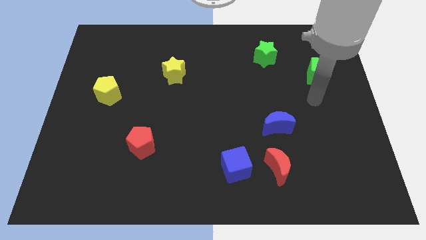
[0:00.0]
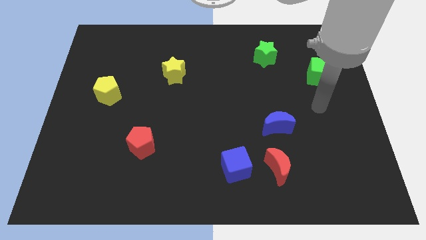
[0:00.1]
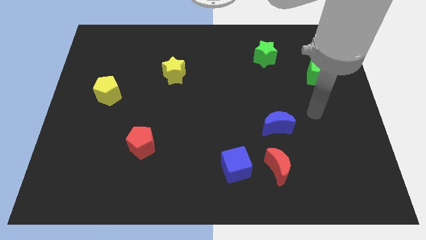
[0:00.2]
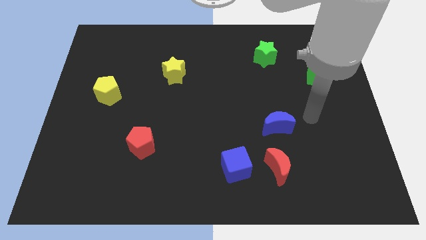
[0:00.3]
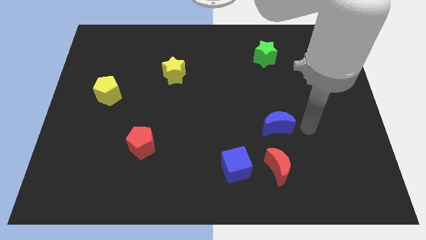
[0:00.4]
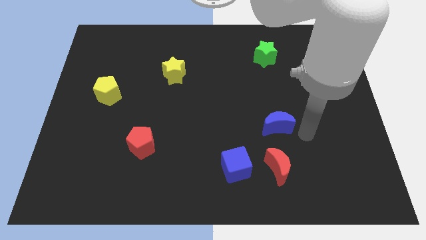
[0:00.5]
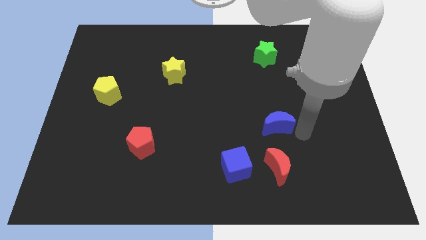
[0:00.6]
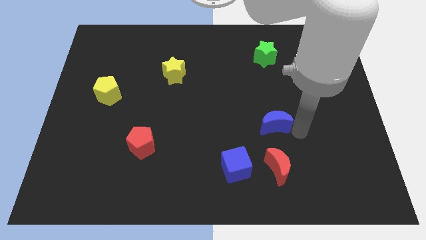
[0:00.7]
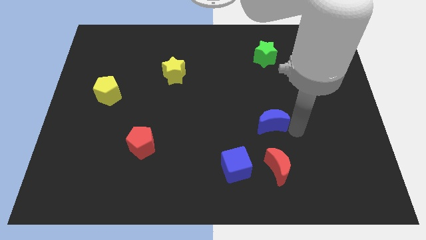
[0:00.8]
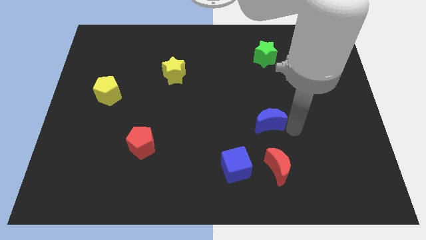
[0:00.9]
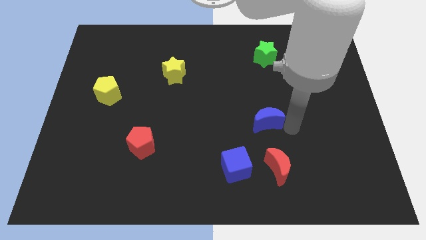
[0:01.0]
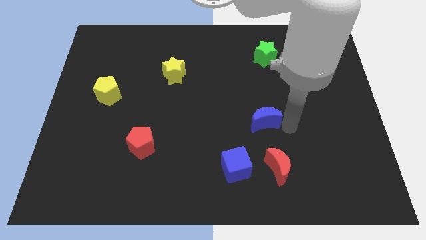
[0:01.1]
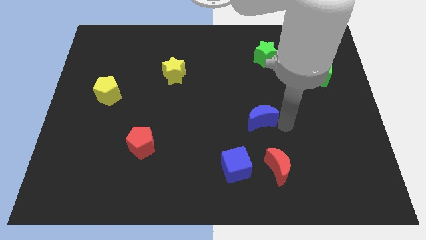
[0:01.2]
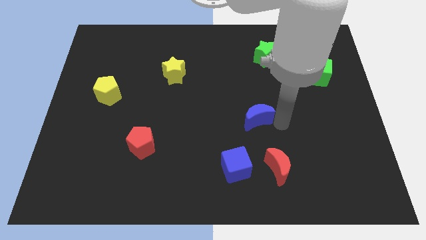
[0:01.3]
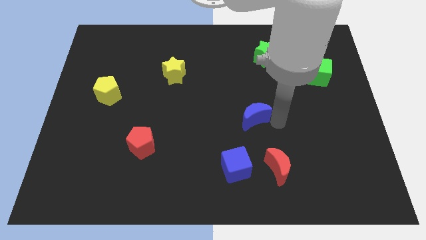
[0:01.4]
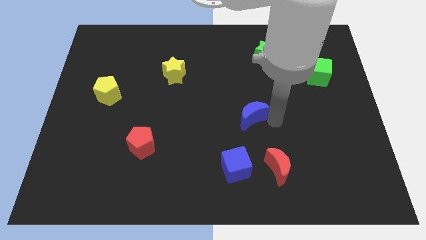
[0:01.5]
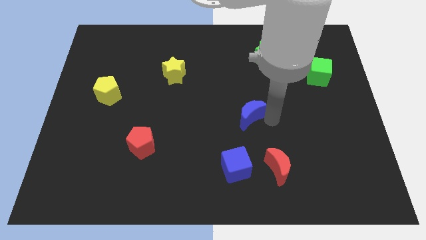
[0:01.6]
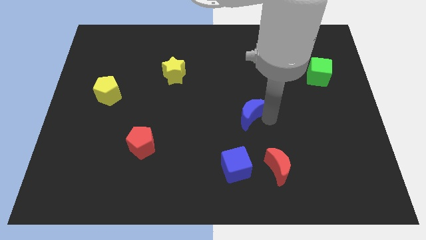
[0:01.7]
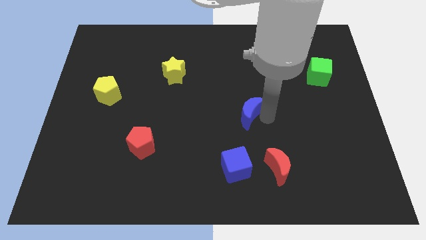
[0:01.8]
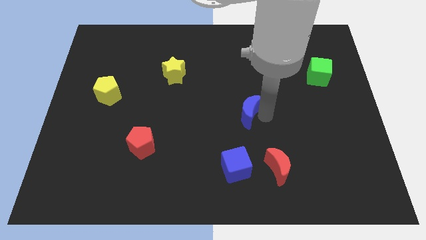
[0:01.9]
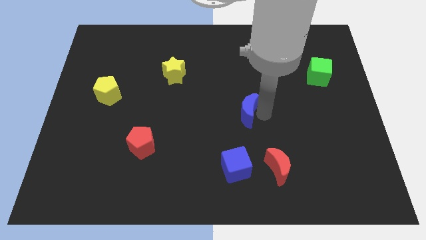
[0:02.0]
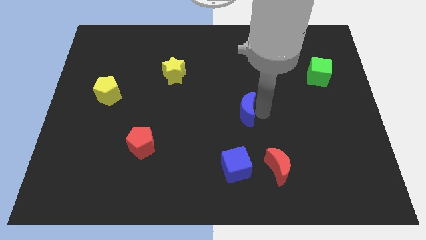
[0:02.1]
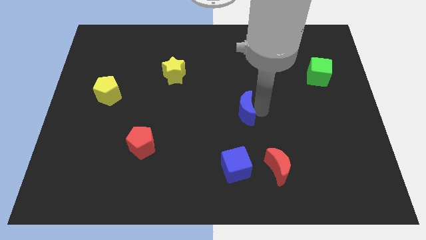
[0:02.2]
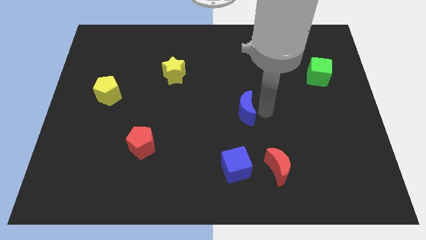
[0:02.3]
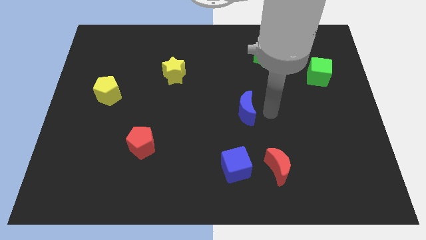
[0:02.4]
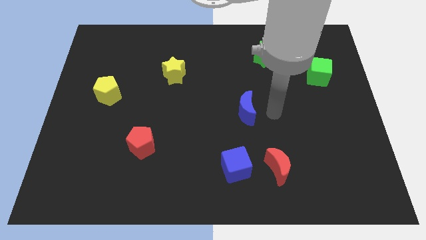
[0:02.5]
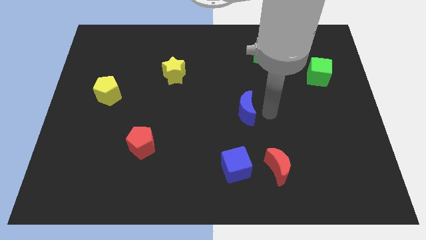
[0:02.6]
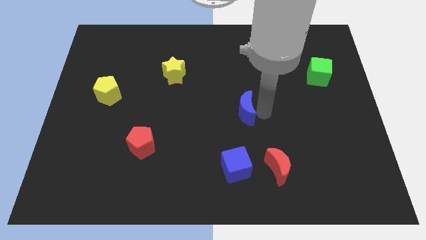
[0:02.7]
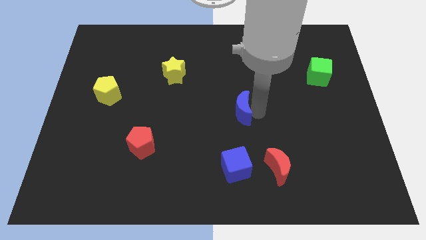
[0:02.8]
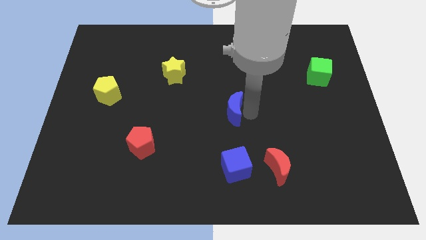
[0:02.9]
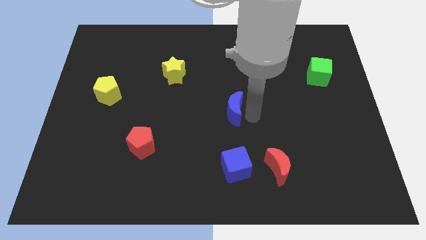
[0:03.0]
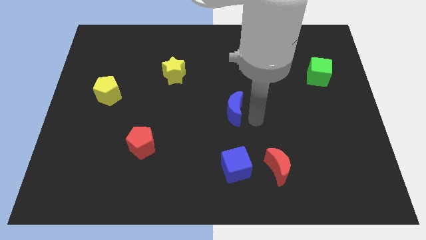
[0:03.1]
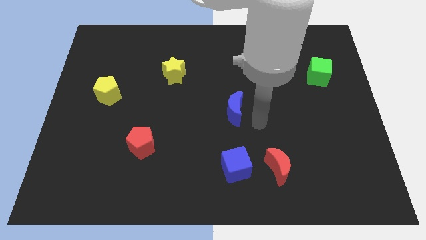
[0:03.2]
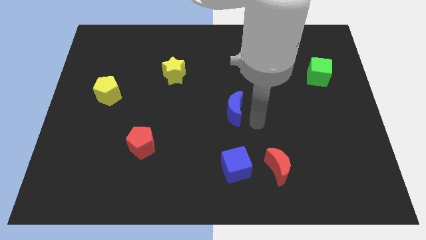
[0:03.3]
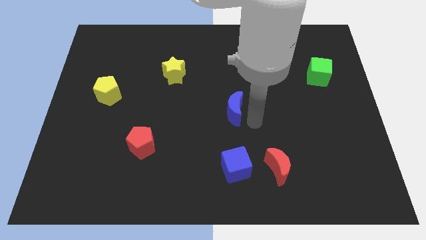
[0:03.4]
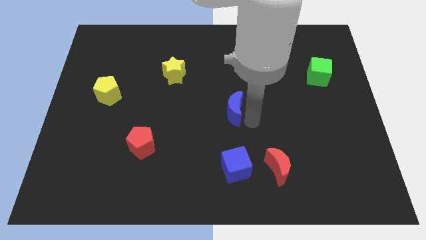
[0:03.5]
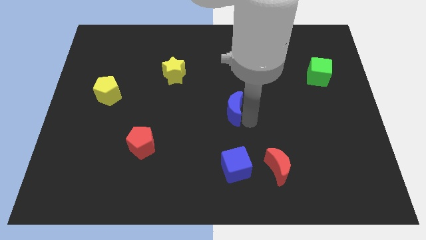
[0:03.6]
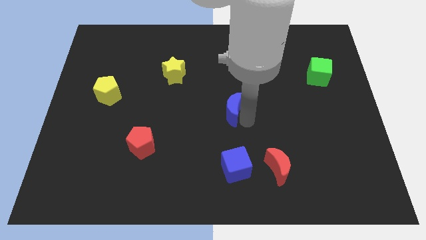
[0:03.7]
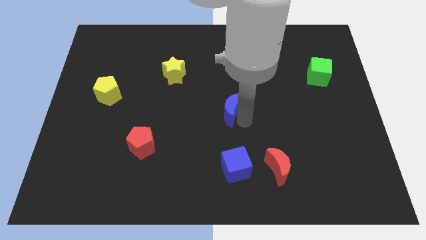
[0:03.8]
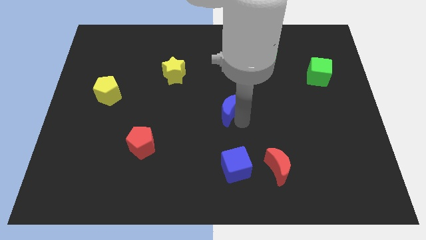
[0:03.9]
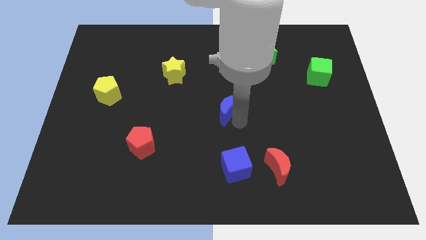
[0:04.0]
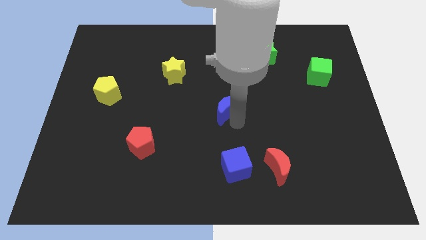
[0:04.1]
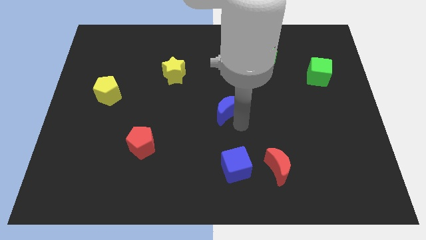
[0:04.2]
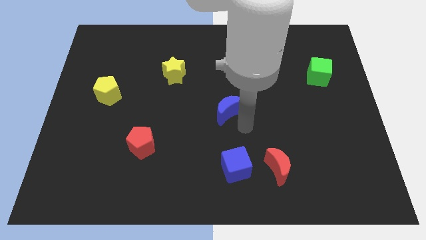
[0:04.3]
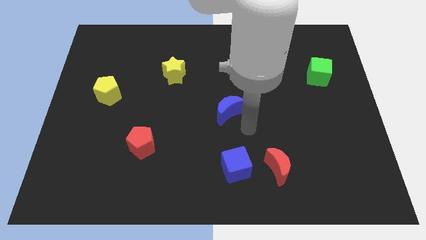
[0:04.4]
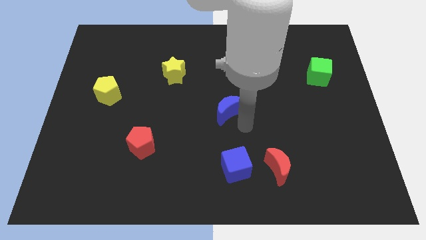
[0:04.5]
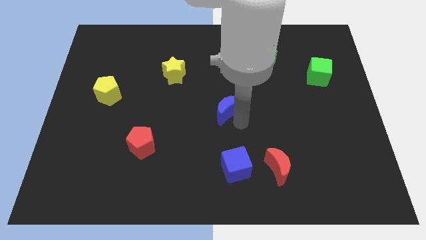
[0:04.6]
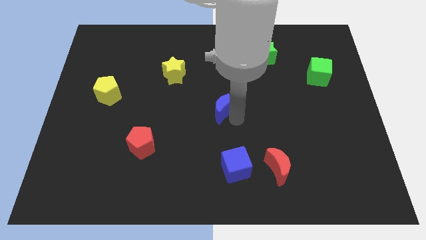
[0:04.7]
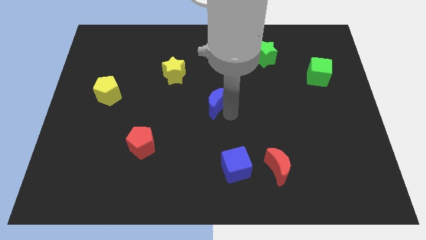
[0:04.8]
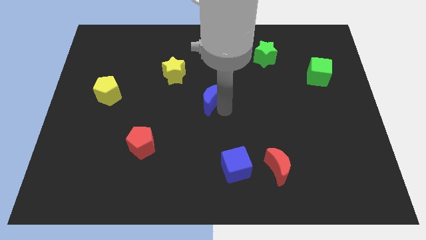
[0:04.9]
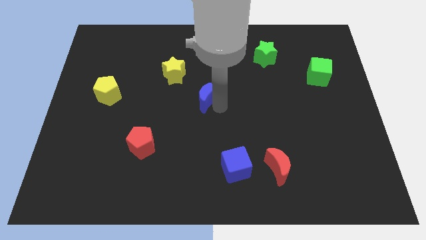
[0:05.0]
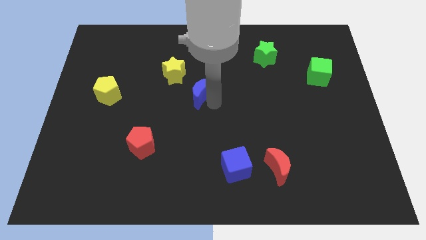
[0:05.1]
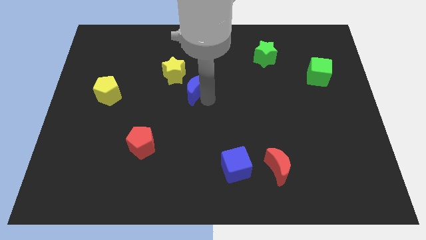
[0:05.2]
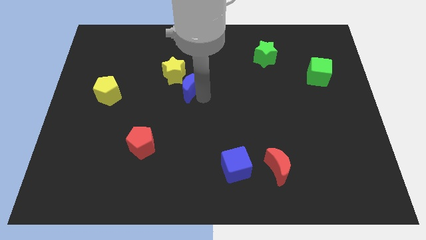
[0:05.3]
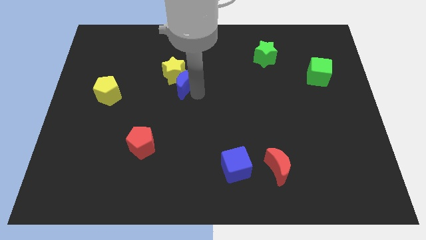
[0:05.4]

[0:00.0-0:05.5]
move the blue moon to the yellow star
